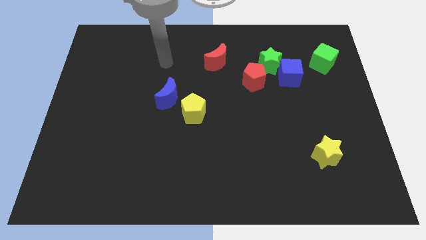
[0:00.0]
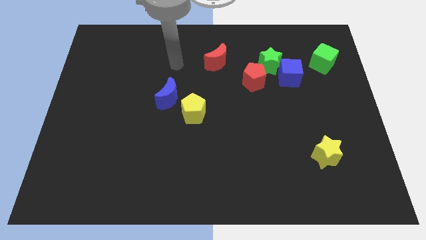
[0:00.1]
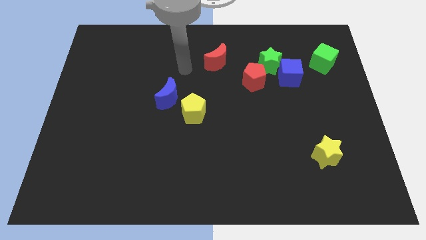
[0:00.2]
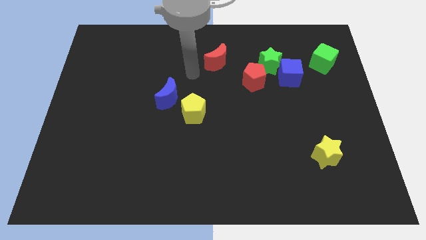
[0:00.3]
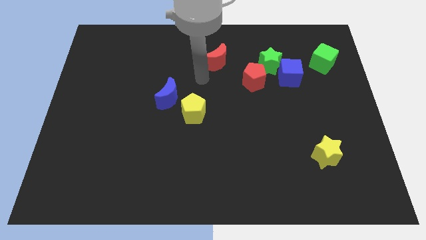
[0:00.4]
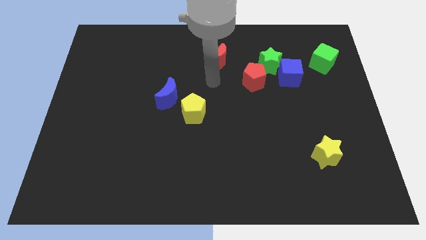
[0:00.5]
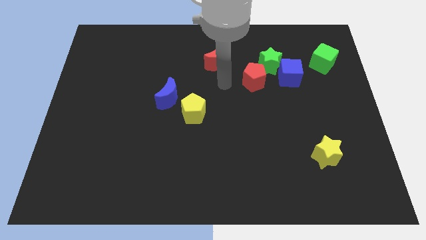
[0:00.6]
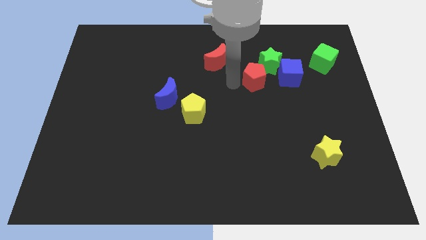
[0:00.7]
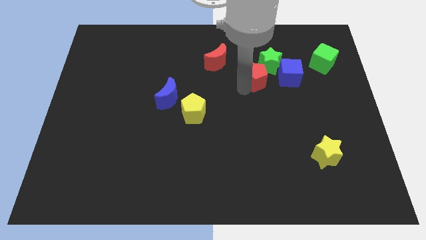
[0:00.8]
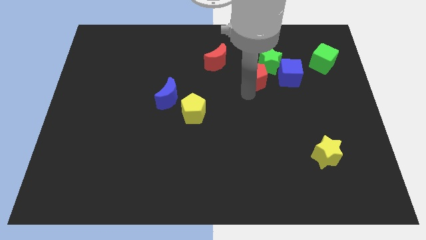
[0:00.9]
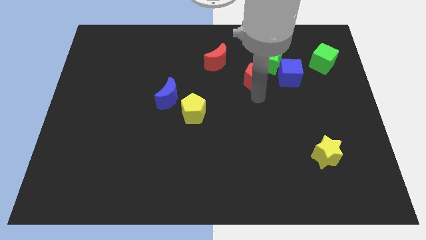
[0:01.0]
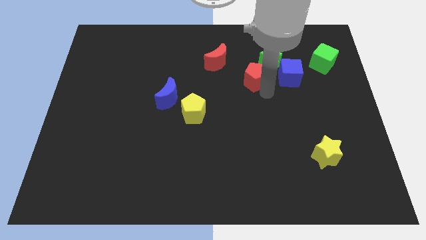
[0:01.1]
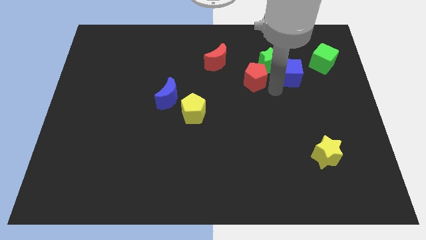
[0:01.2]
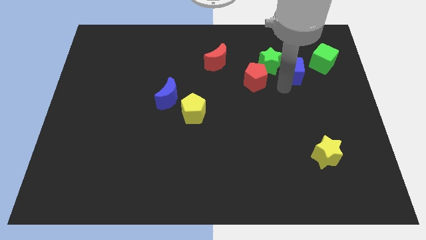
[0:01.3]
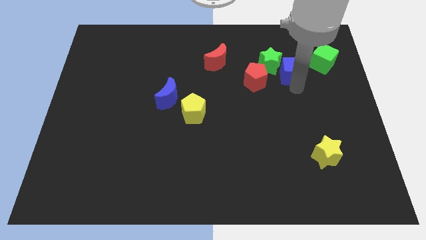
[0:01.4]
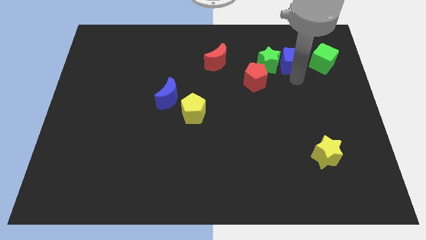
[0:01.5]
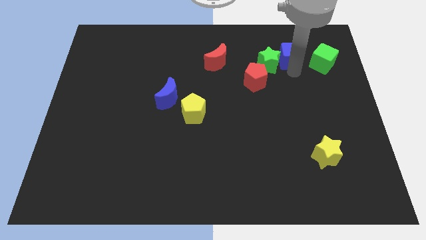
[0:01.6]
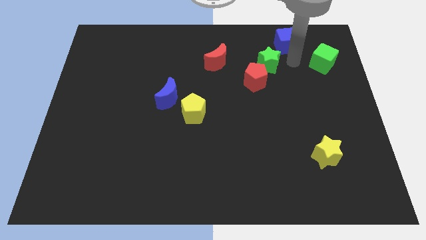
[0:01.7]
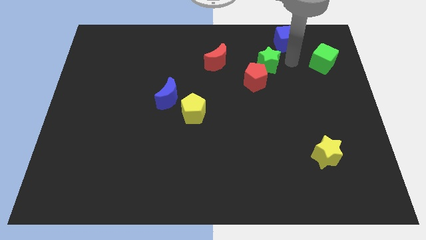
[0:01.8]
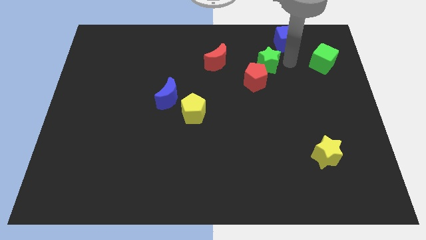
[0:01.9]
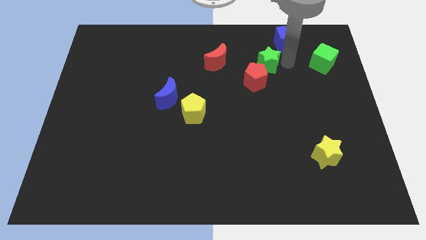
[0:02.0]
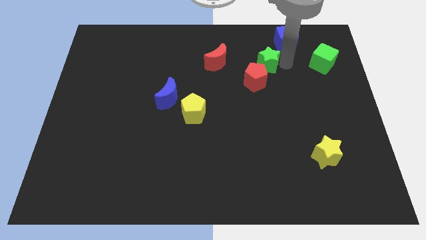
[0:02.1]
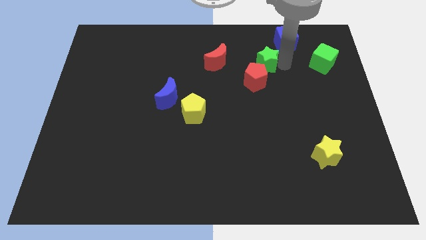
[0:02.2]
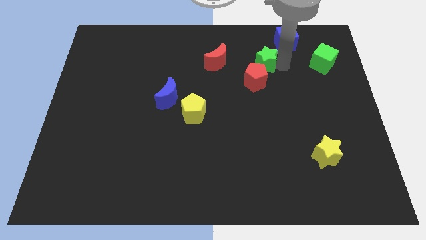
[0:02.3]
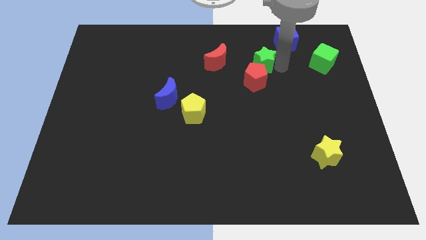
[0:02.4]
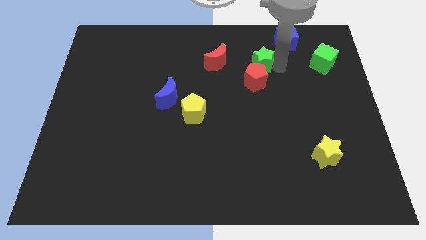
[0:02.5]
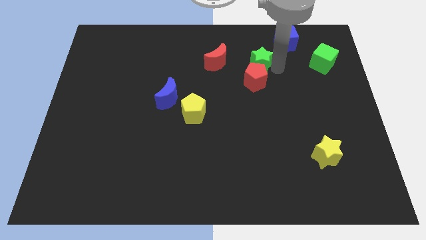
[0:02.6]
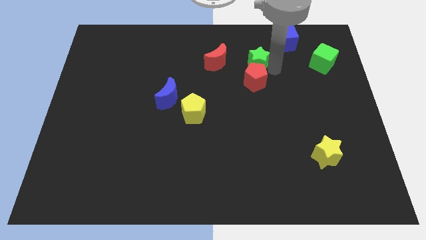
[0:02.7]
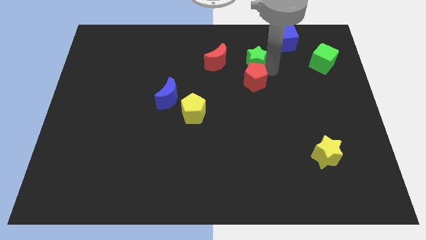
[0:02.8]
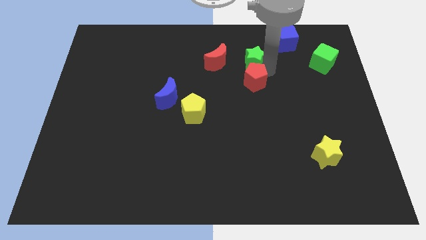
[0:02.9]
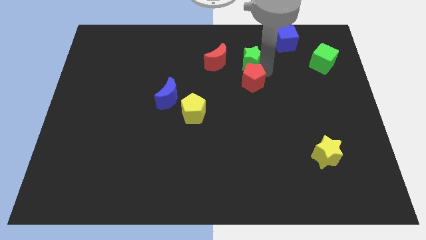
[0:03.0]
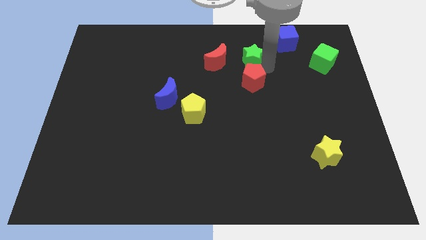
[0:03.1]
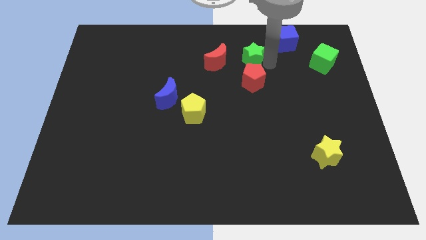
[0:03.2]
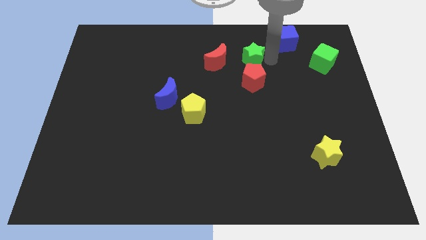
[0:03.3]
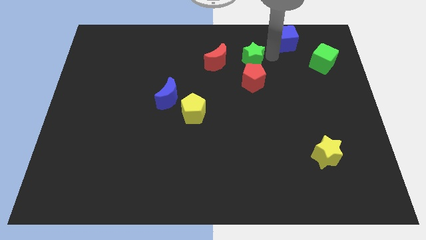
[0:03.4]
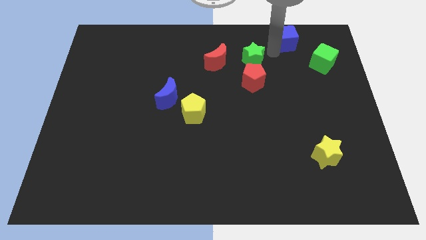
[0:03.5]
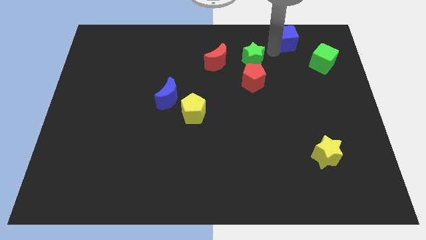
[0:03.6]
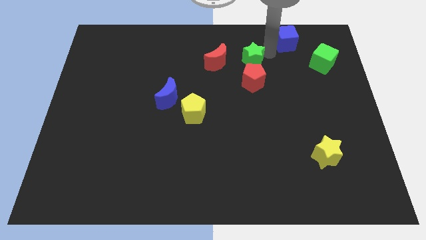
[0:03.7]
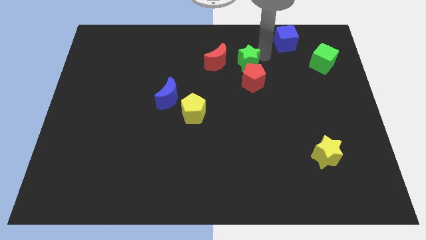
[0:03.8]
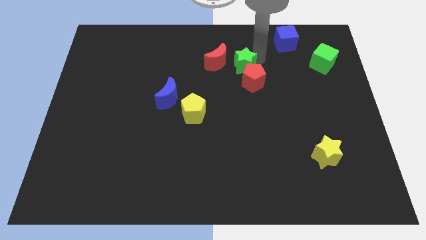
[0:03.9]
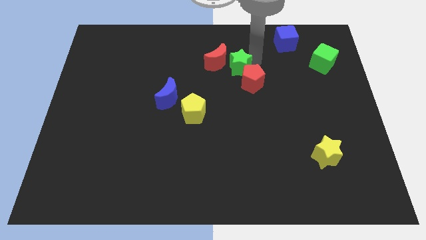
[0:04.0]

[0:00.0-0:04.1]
push the green star somewhat left

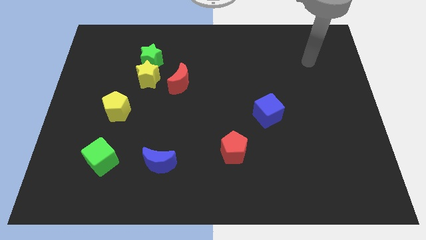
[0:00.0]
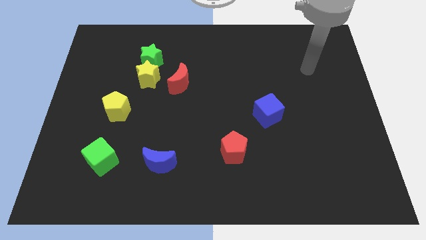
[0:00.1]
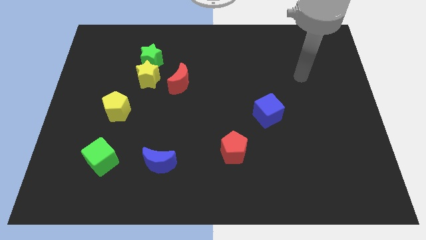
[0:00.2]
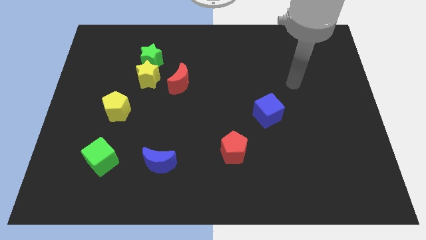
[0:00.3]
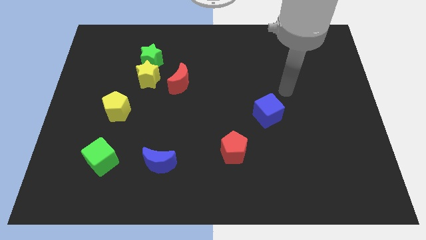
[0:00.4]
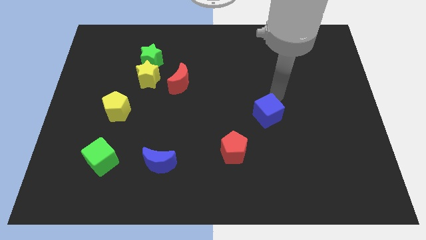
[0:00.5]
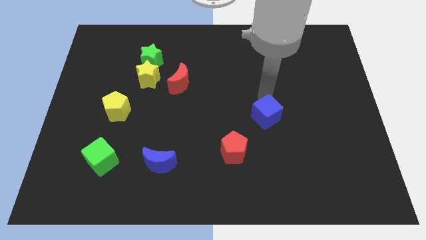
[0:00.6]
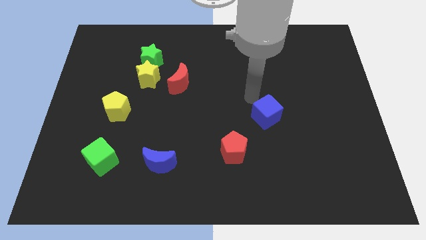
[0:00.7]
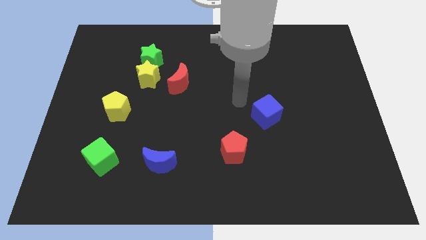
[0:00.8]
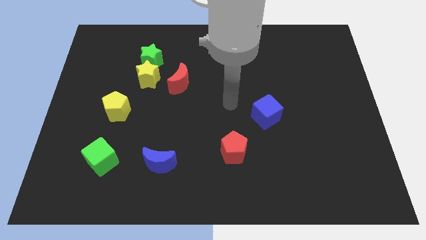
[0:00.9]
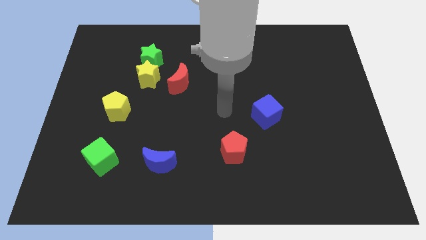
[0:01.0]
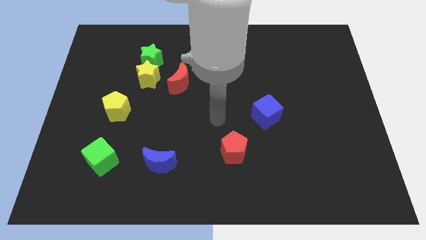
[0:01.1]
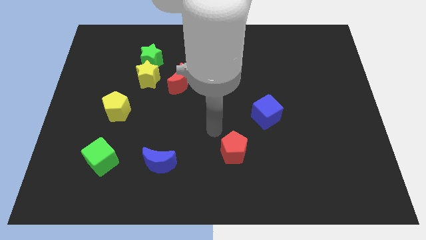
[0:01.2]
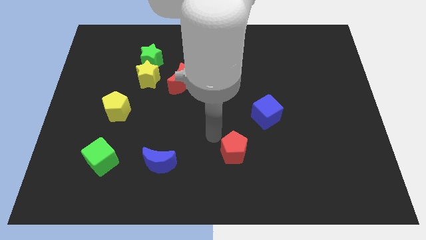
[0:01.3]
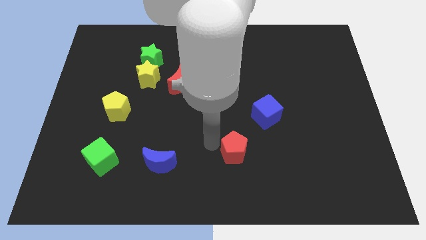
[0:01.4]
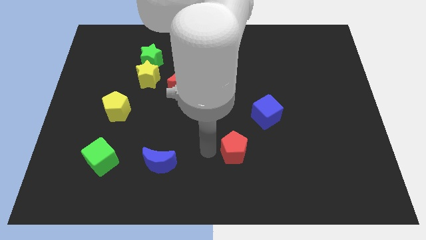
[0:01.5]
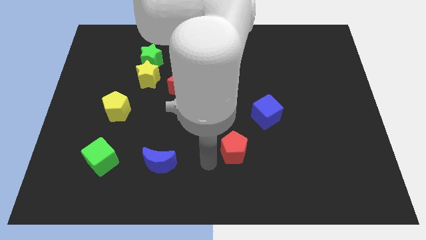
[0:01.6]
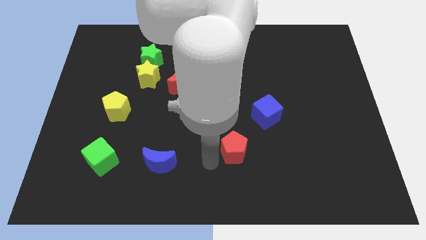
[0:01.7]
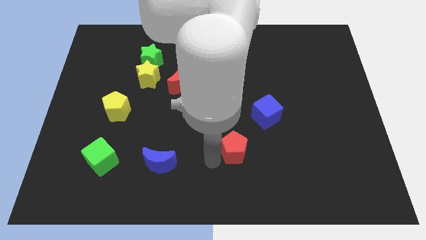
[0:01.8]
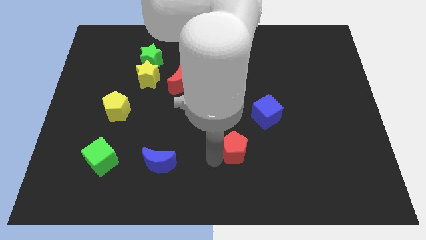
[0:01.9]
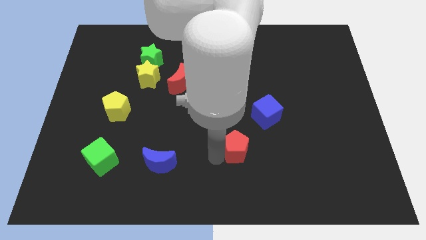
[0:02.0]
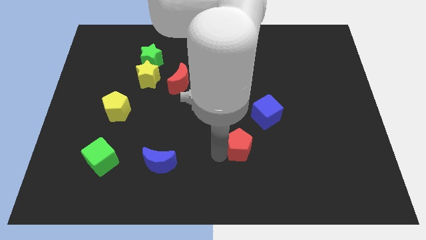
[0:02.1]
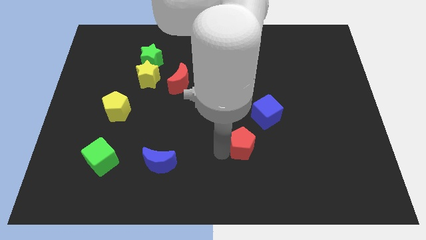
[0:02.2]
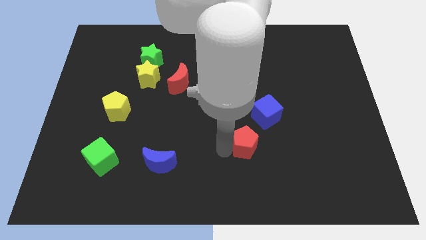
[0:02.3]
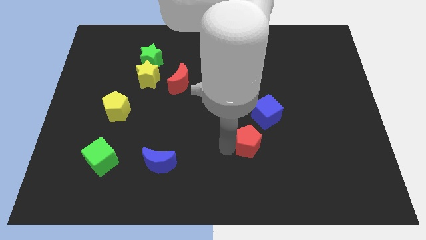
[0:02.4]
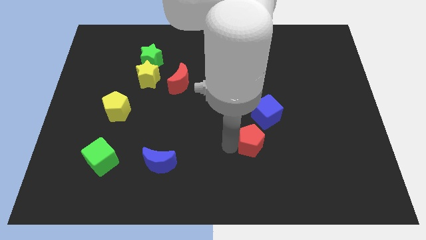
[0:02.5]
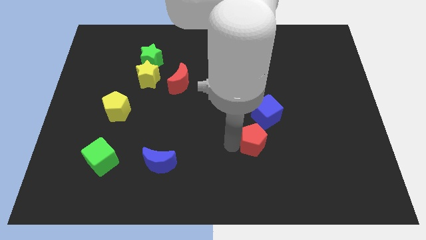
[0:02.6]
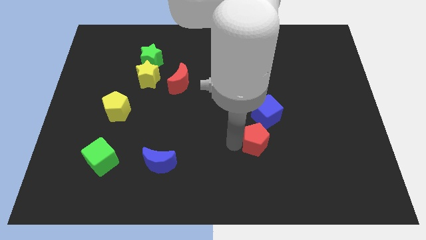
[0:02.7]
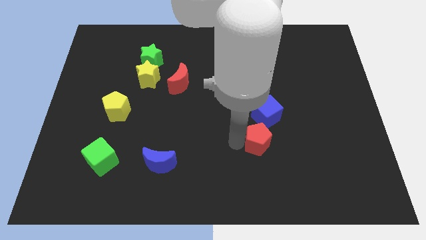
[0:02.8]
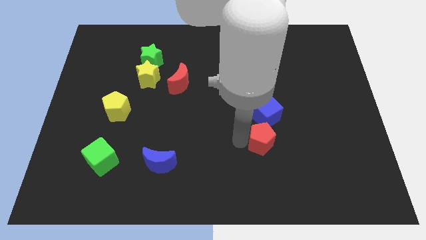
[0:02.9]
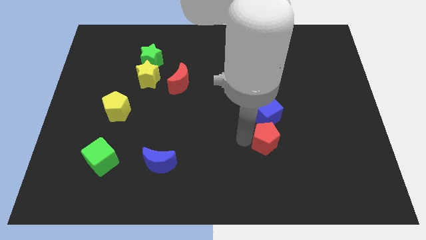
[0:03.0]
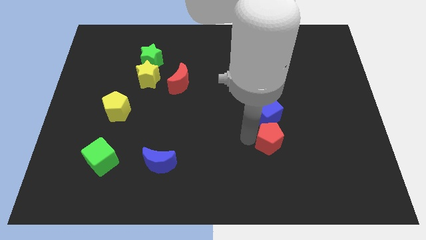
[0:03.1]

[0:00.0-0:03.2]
move the red pentagon a bit up and then to the right
